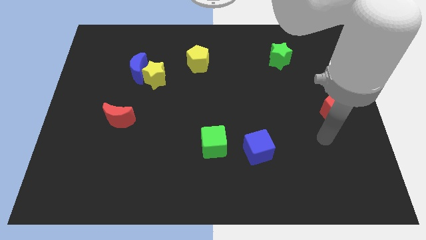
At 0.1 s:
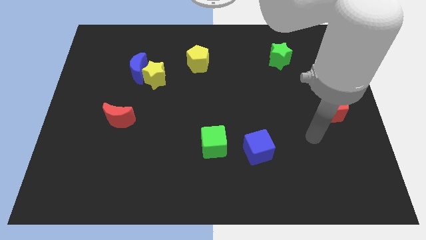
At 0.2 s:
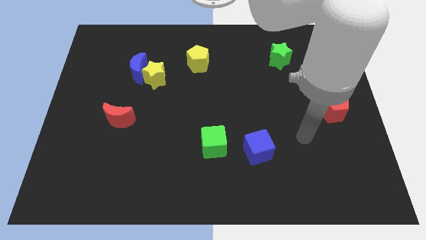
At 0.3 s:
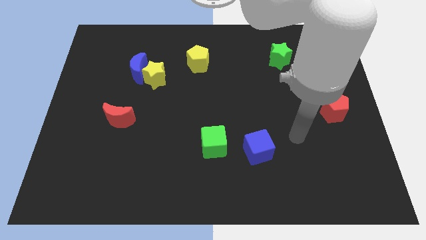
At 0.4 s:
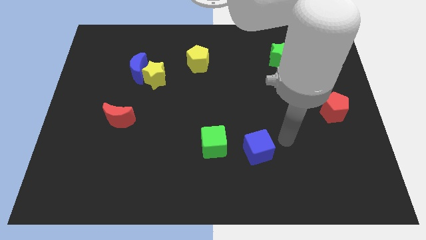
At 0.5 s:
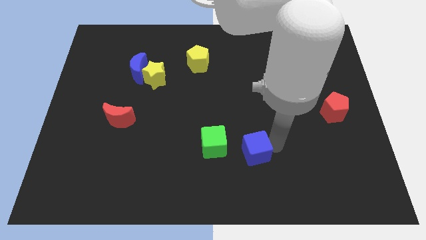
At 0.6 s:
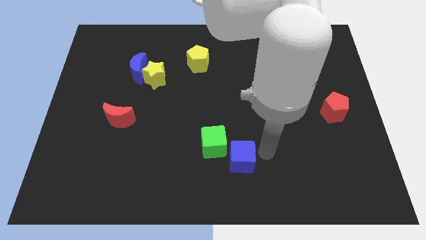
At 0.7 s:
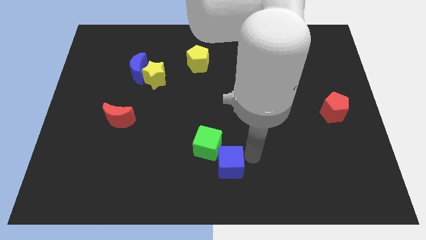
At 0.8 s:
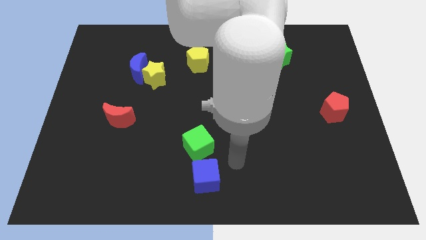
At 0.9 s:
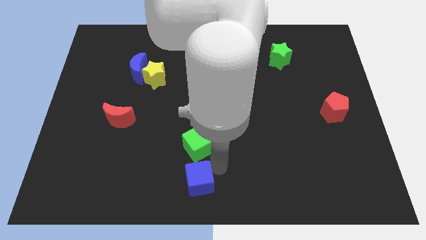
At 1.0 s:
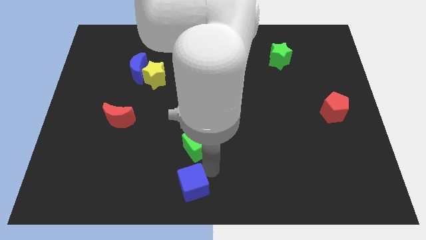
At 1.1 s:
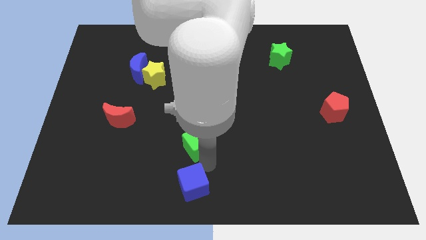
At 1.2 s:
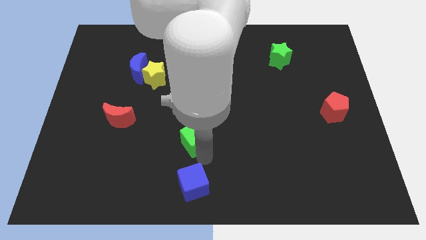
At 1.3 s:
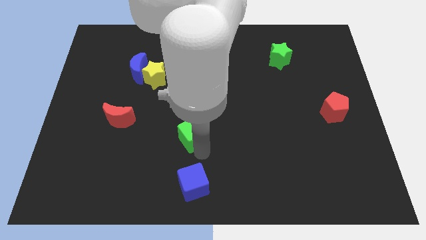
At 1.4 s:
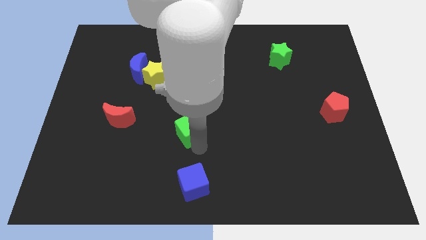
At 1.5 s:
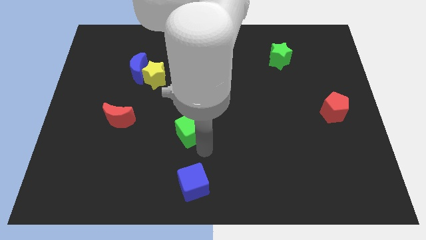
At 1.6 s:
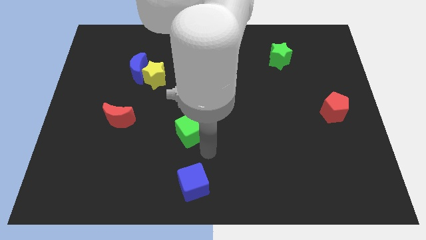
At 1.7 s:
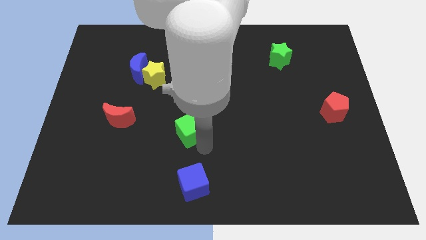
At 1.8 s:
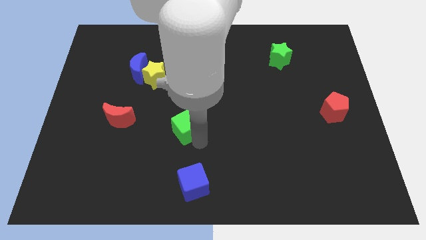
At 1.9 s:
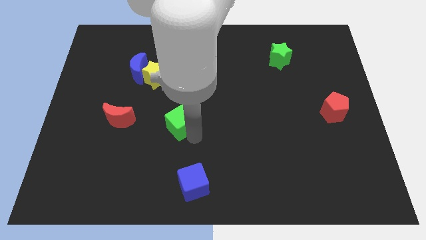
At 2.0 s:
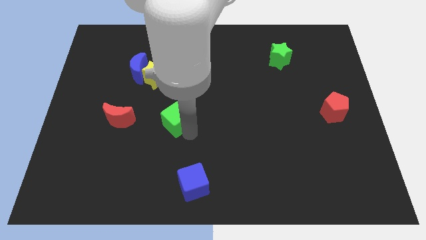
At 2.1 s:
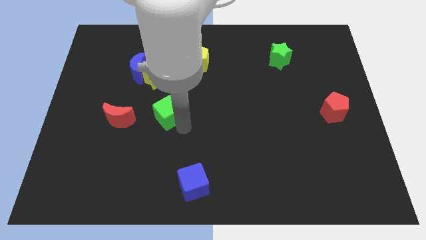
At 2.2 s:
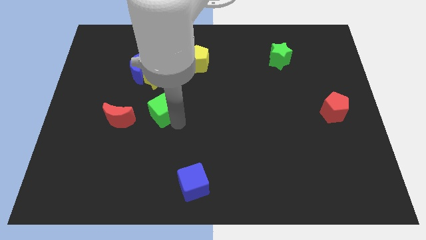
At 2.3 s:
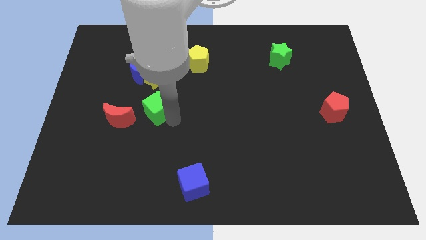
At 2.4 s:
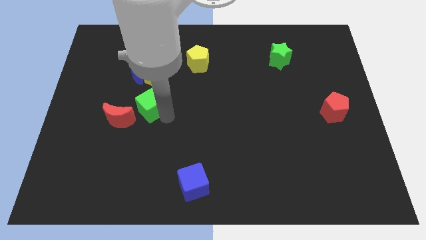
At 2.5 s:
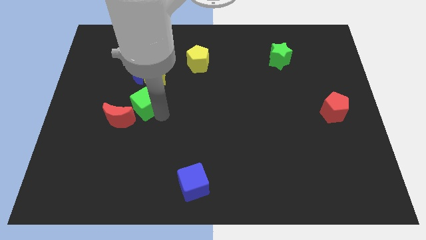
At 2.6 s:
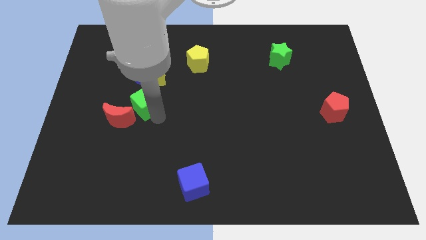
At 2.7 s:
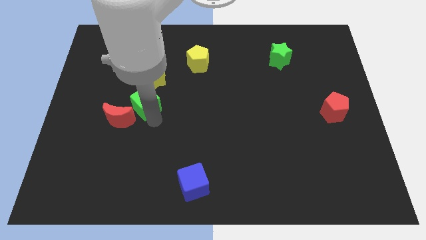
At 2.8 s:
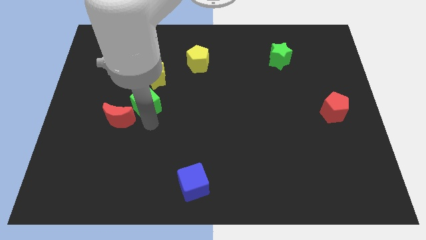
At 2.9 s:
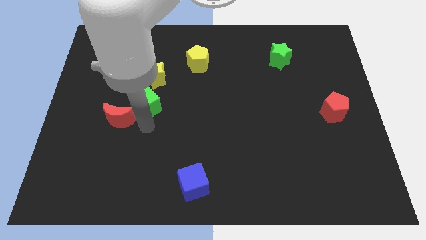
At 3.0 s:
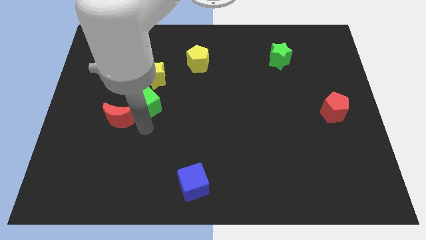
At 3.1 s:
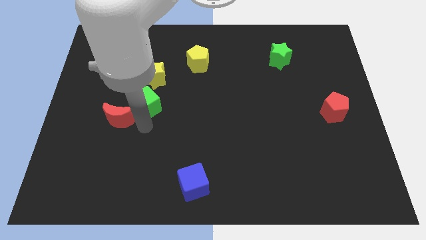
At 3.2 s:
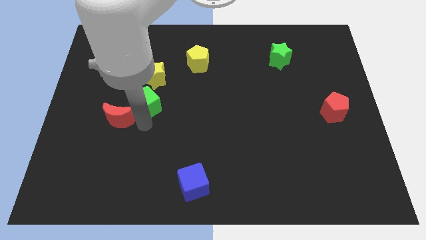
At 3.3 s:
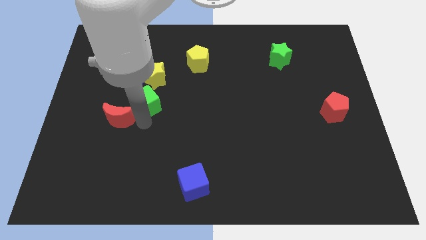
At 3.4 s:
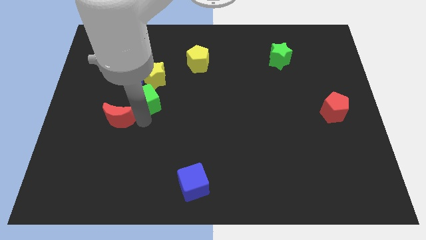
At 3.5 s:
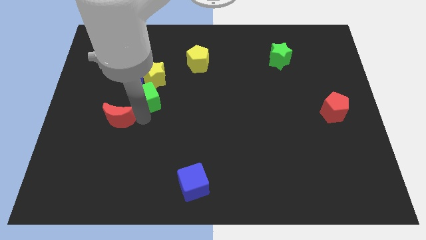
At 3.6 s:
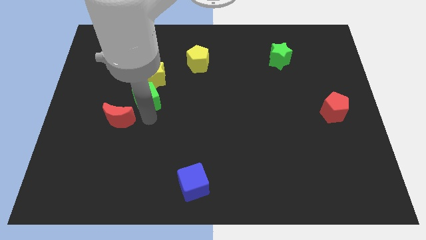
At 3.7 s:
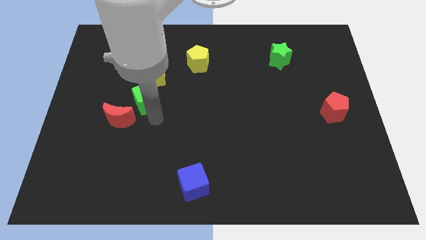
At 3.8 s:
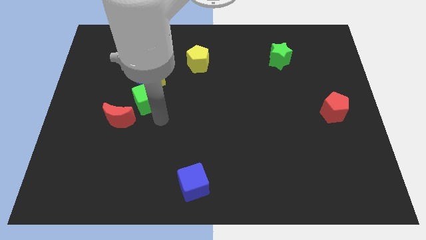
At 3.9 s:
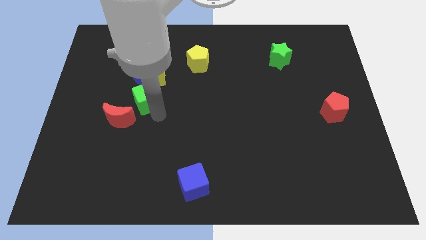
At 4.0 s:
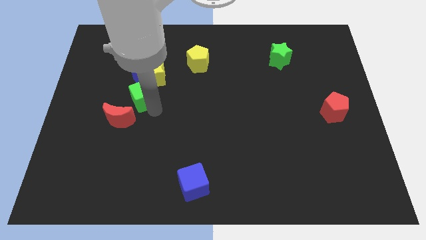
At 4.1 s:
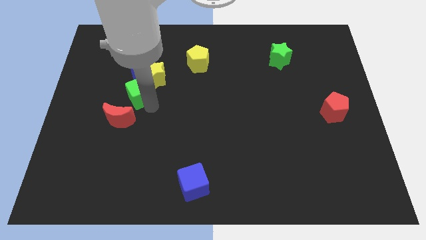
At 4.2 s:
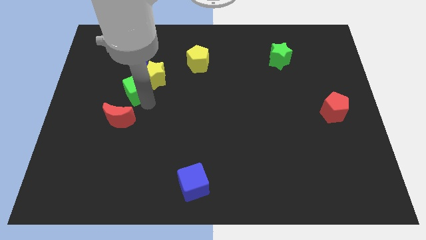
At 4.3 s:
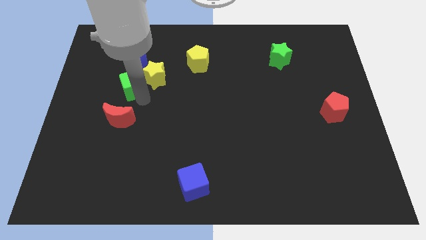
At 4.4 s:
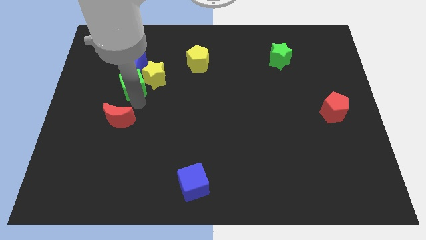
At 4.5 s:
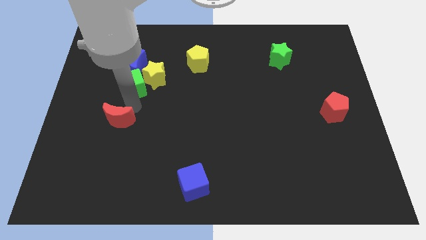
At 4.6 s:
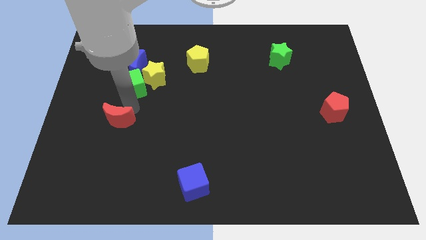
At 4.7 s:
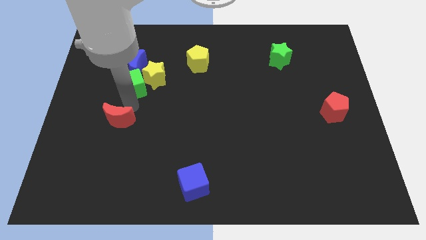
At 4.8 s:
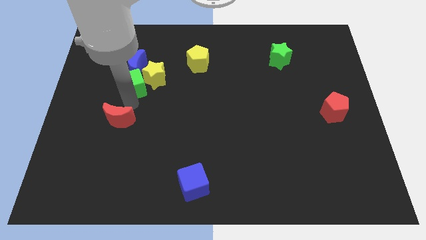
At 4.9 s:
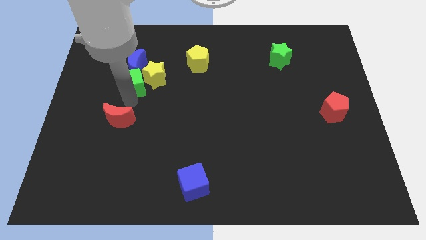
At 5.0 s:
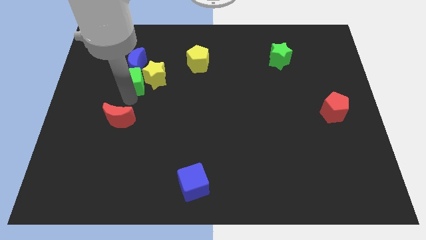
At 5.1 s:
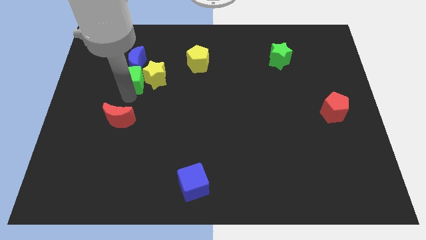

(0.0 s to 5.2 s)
move the green cube close to the blue moon

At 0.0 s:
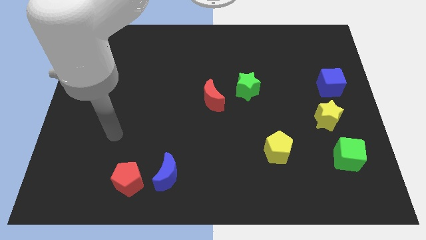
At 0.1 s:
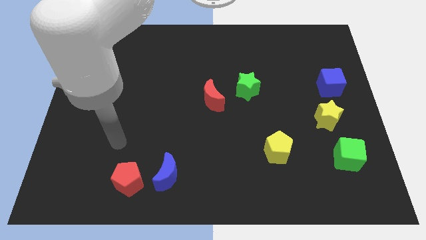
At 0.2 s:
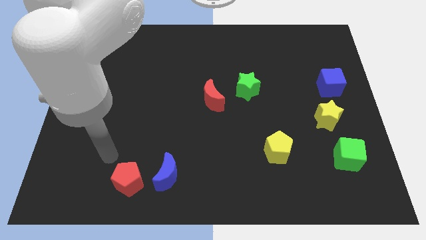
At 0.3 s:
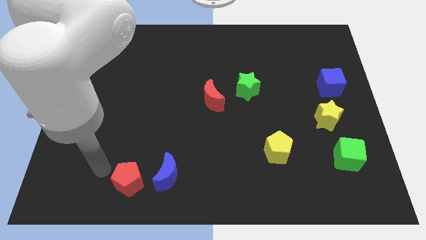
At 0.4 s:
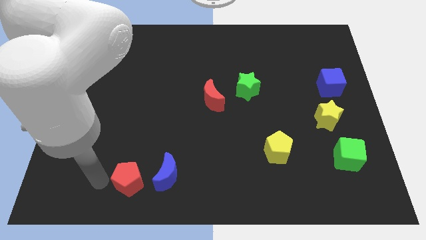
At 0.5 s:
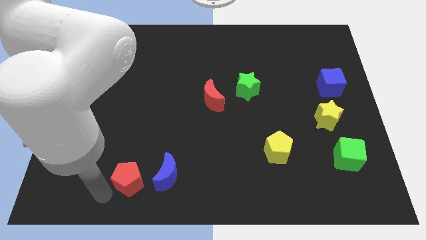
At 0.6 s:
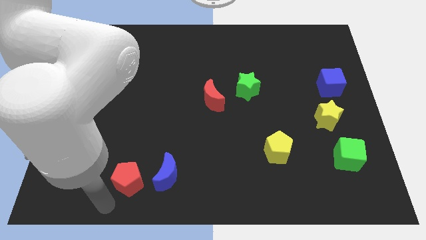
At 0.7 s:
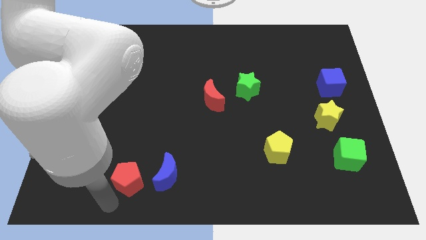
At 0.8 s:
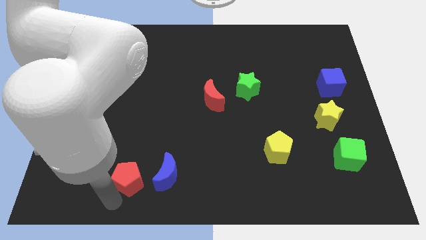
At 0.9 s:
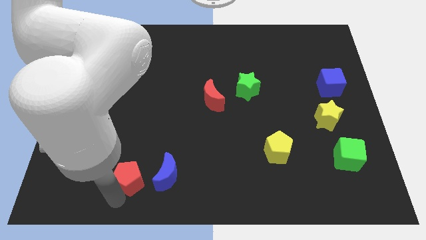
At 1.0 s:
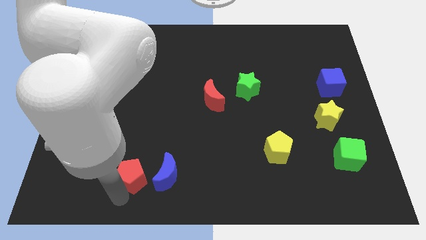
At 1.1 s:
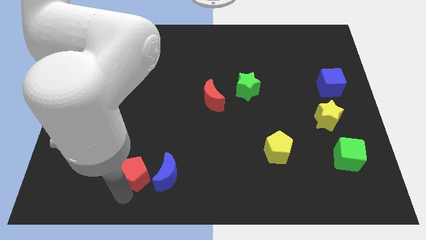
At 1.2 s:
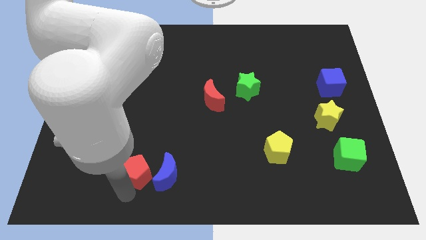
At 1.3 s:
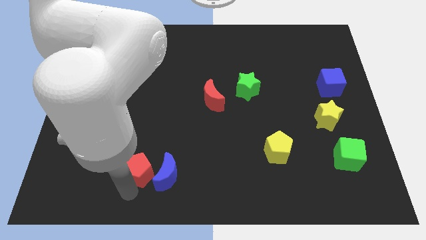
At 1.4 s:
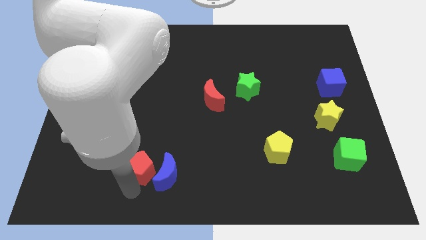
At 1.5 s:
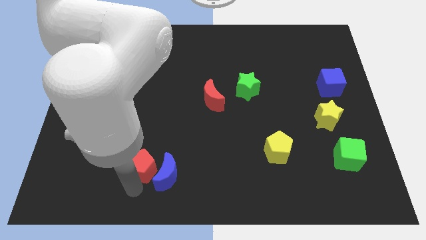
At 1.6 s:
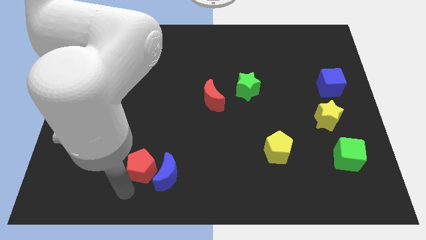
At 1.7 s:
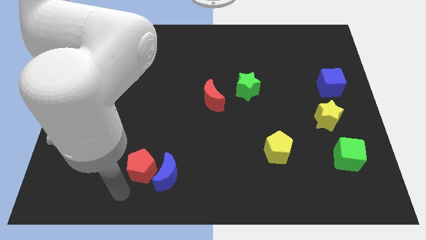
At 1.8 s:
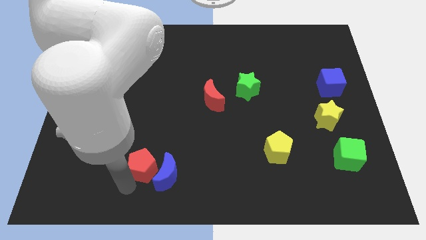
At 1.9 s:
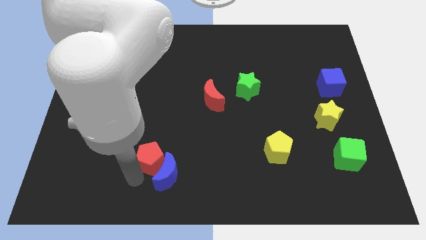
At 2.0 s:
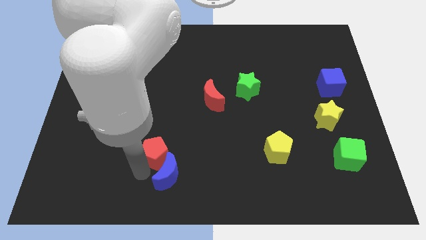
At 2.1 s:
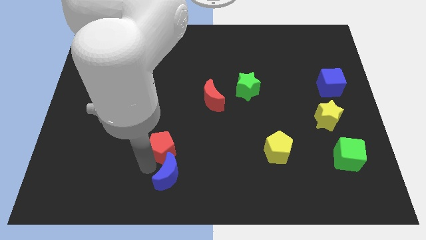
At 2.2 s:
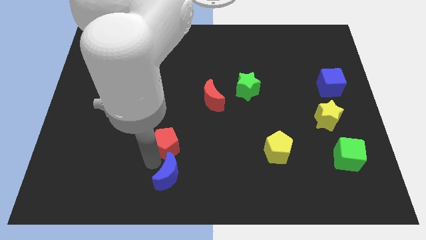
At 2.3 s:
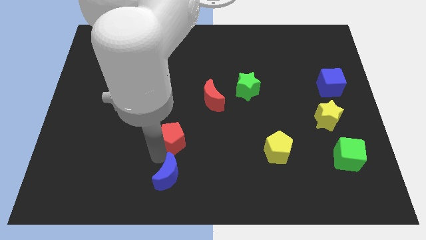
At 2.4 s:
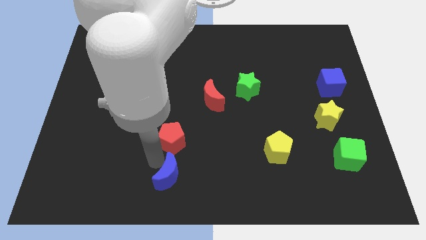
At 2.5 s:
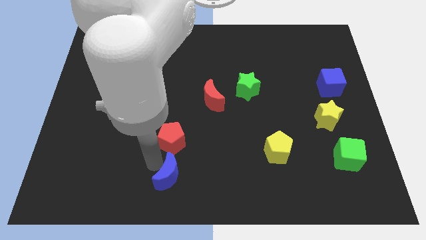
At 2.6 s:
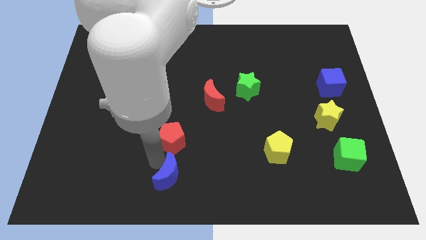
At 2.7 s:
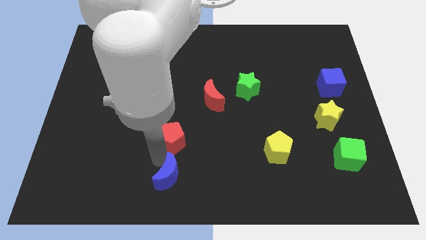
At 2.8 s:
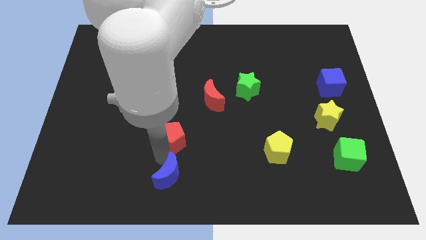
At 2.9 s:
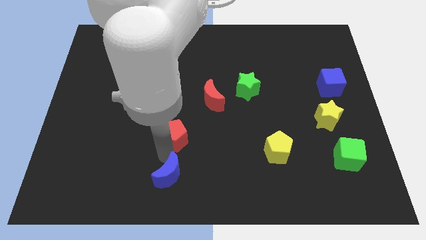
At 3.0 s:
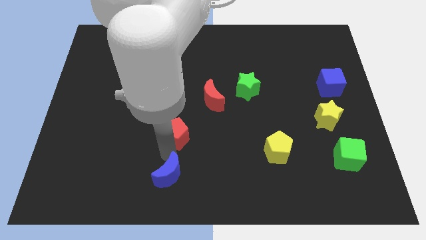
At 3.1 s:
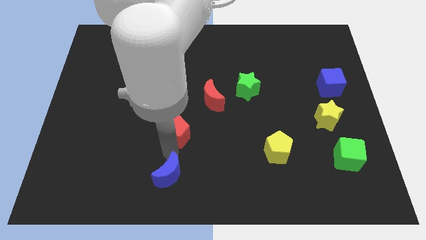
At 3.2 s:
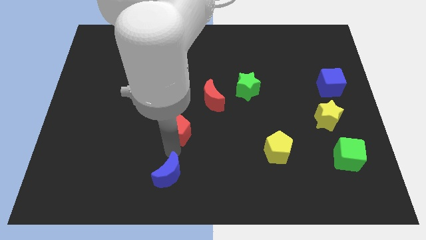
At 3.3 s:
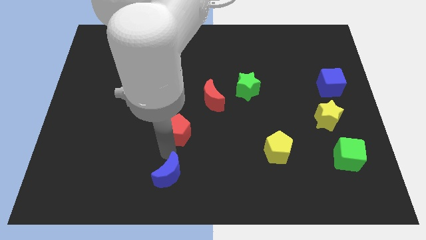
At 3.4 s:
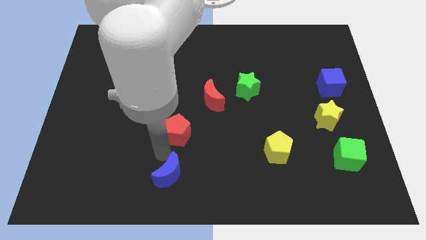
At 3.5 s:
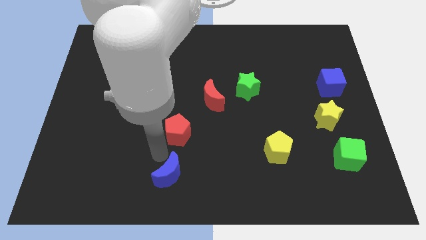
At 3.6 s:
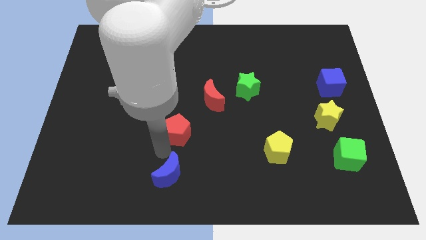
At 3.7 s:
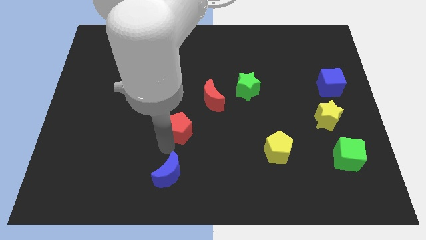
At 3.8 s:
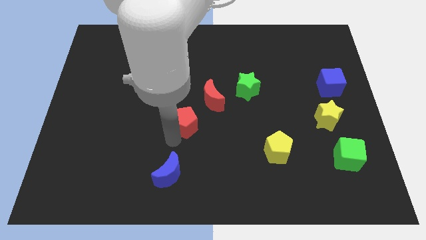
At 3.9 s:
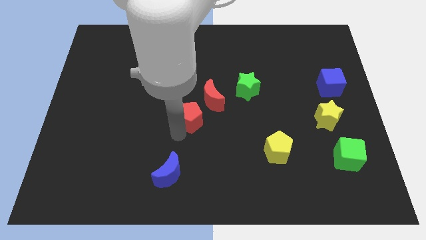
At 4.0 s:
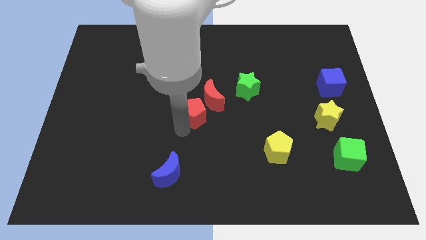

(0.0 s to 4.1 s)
move the red pentagon close to the red moon
